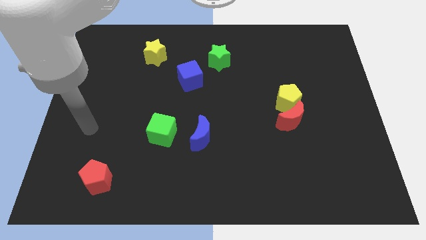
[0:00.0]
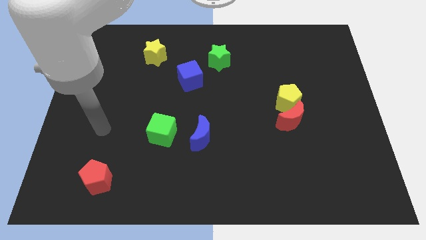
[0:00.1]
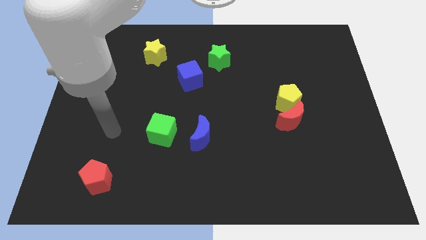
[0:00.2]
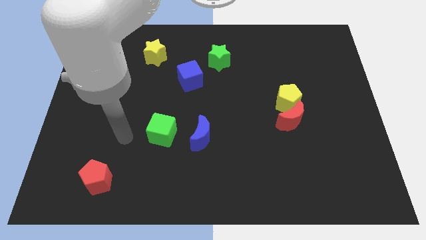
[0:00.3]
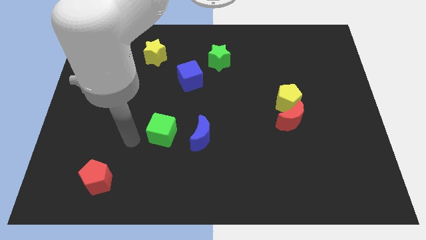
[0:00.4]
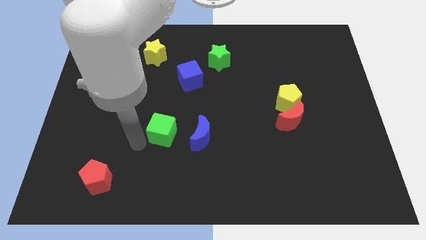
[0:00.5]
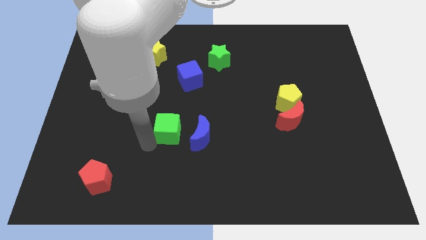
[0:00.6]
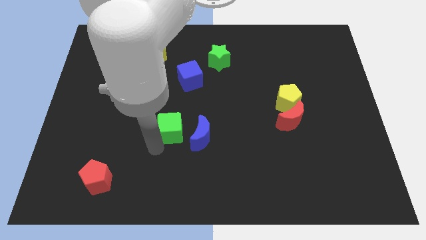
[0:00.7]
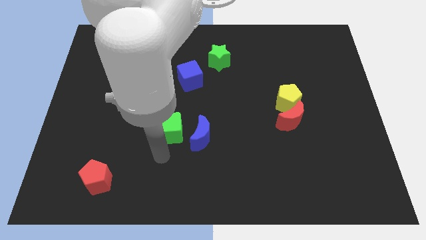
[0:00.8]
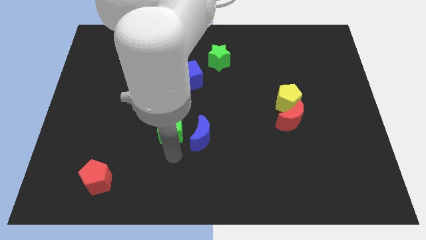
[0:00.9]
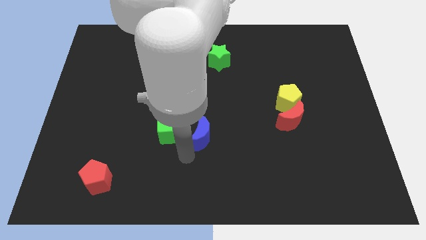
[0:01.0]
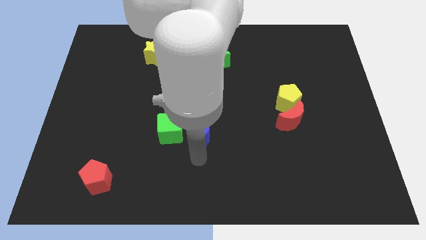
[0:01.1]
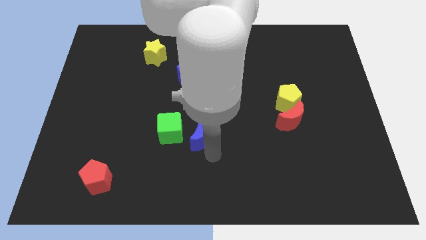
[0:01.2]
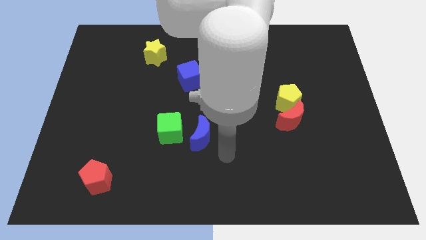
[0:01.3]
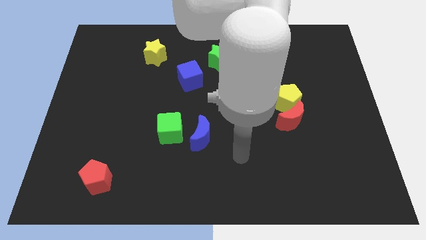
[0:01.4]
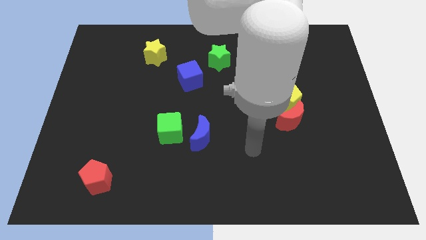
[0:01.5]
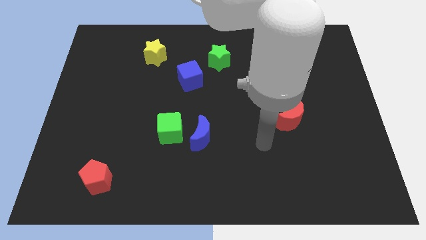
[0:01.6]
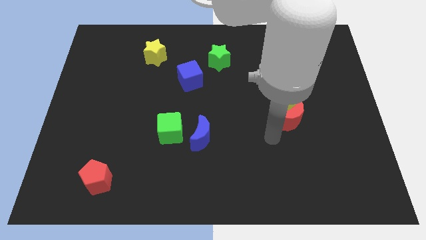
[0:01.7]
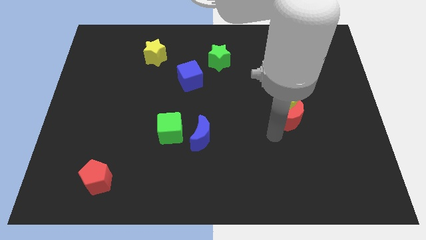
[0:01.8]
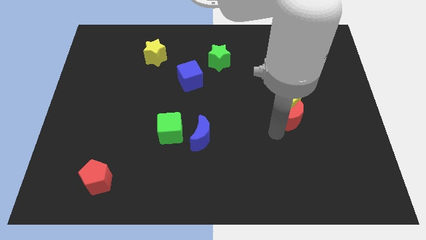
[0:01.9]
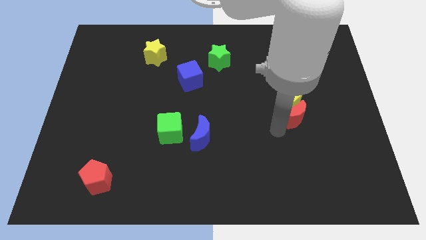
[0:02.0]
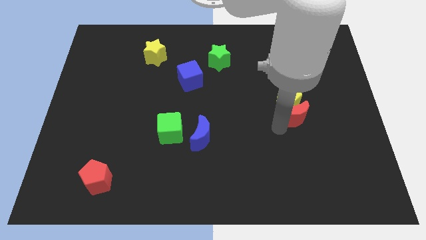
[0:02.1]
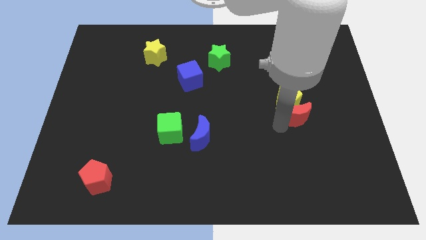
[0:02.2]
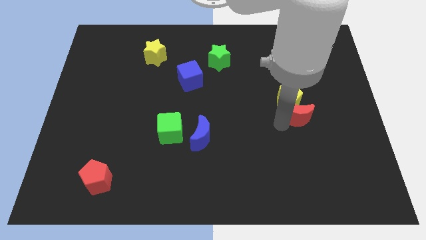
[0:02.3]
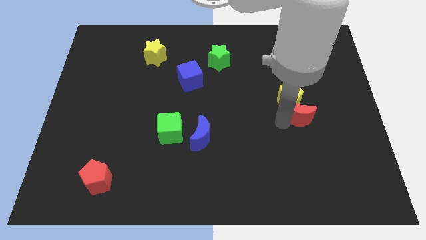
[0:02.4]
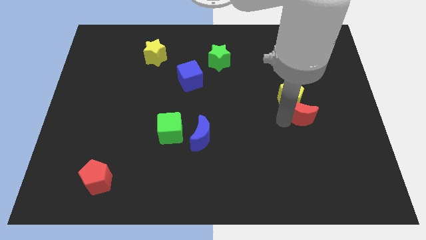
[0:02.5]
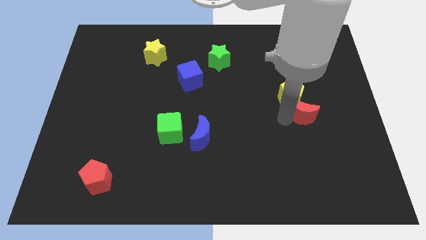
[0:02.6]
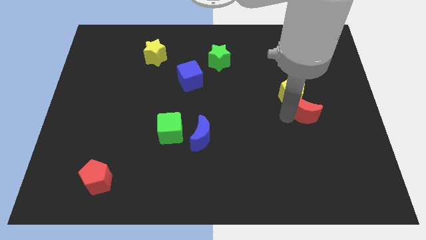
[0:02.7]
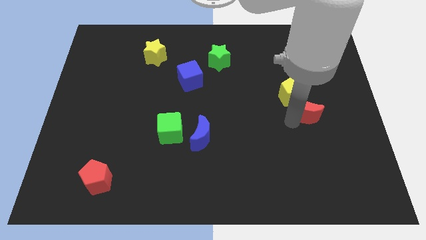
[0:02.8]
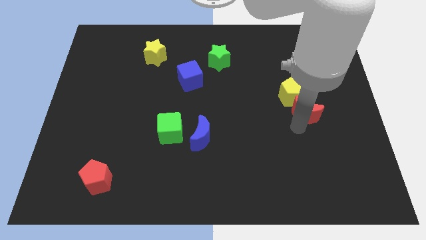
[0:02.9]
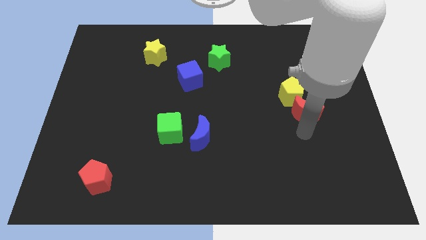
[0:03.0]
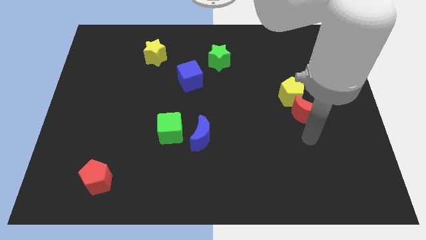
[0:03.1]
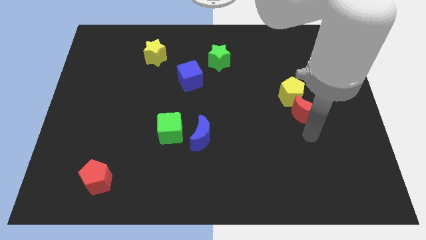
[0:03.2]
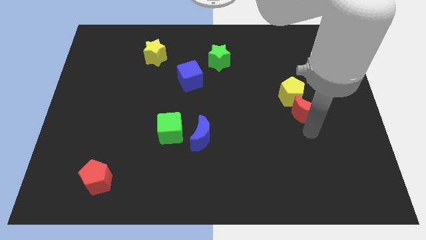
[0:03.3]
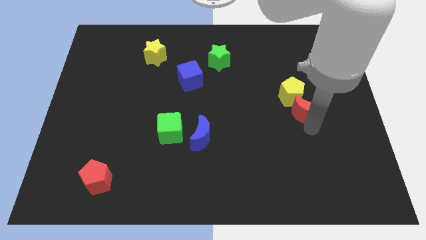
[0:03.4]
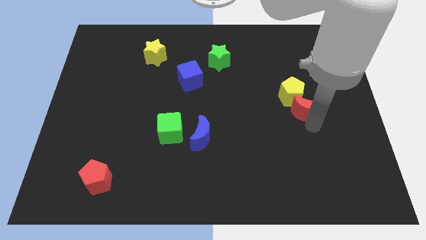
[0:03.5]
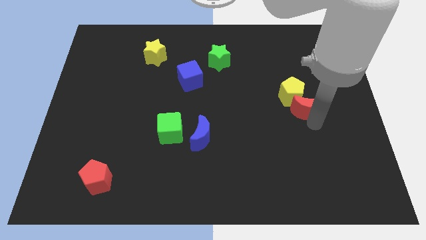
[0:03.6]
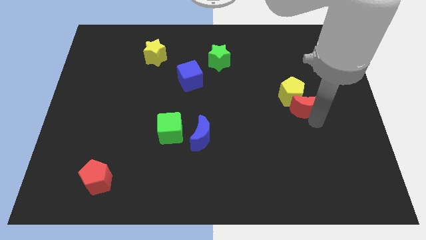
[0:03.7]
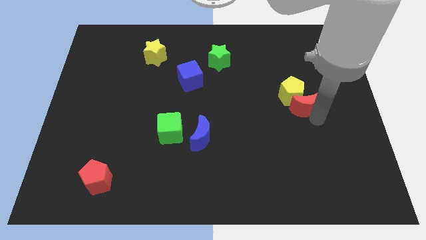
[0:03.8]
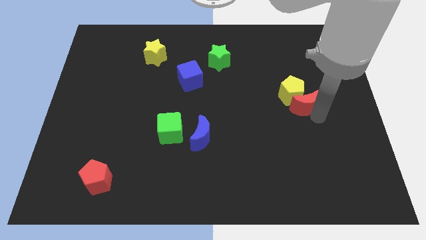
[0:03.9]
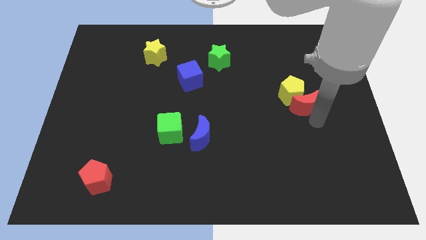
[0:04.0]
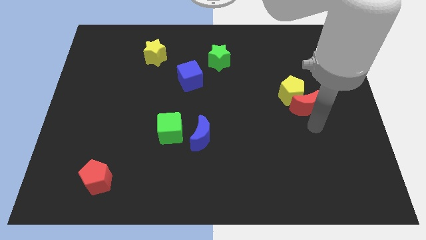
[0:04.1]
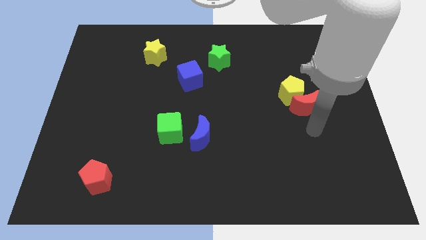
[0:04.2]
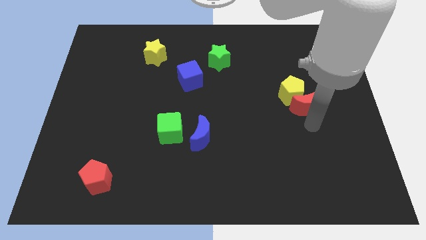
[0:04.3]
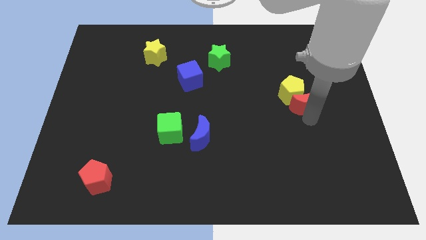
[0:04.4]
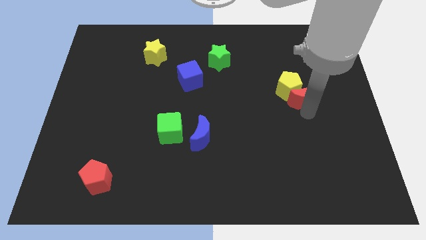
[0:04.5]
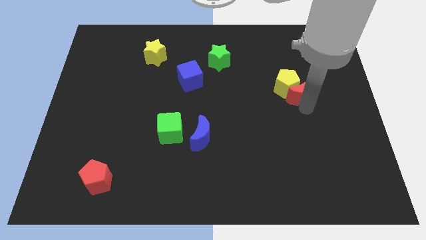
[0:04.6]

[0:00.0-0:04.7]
push the red moon up somewhat

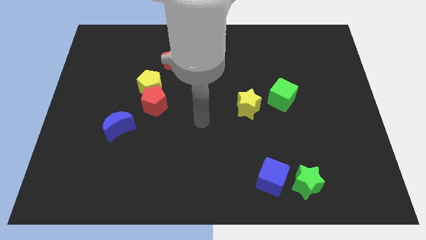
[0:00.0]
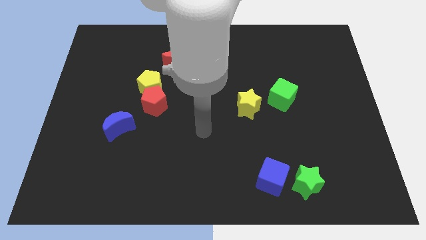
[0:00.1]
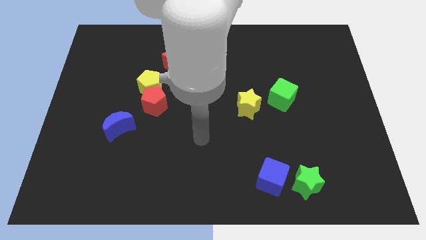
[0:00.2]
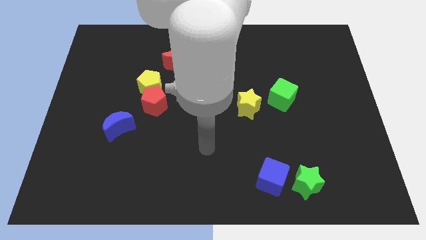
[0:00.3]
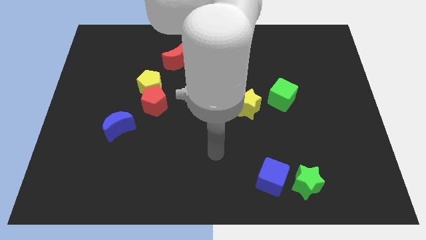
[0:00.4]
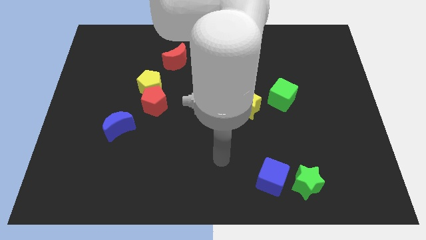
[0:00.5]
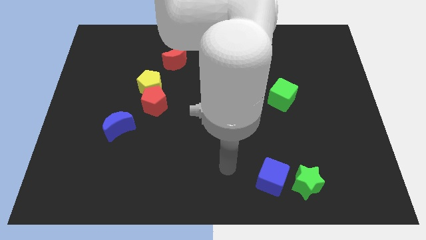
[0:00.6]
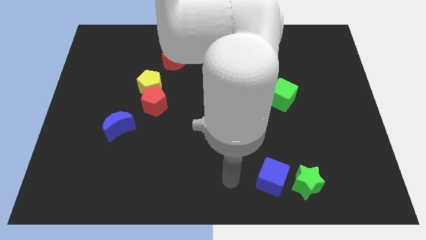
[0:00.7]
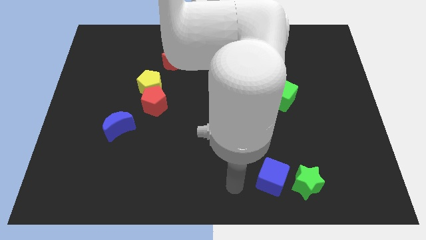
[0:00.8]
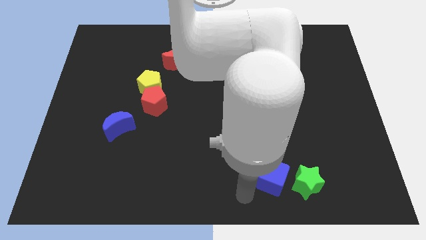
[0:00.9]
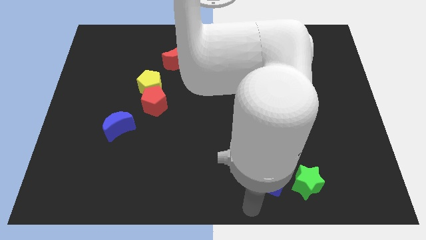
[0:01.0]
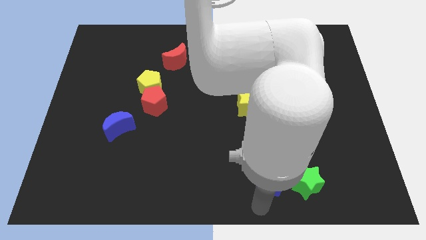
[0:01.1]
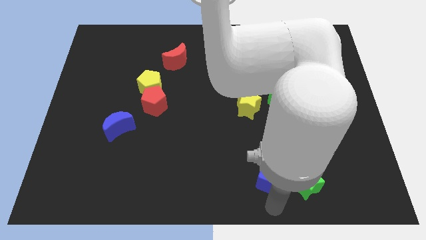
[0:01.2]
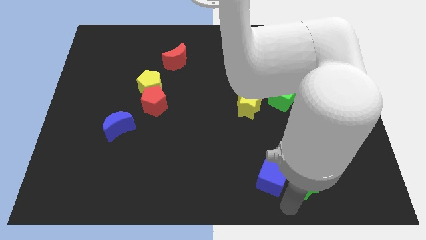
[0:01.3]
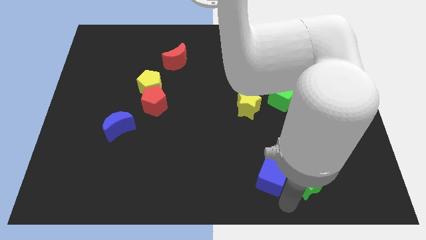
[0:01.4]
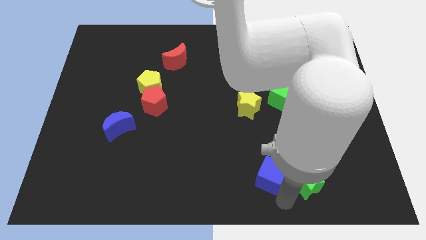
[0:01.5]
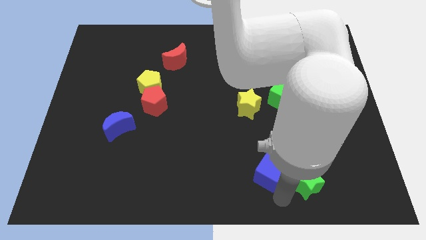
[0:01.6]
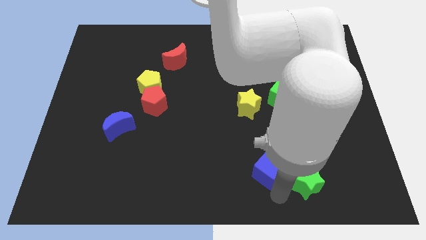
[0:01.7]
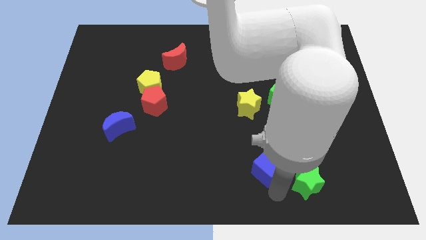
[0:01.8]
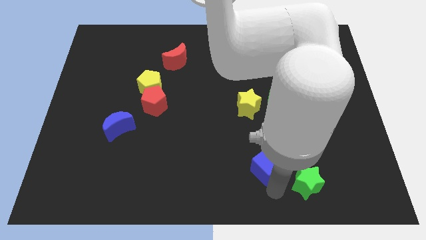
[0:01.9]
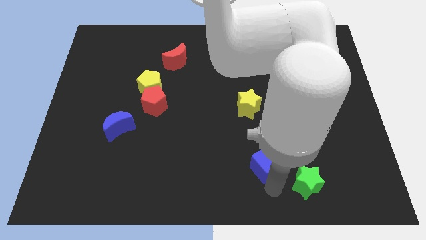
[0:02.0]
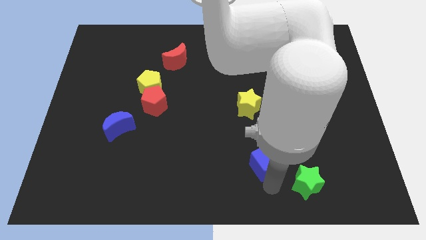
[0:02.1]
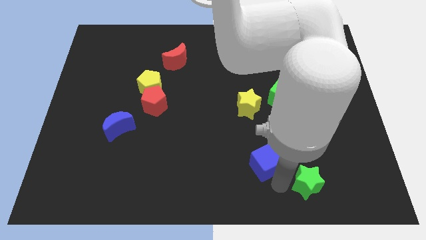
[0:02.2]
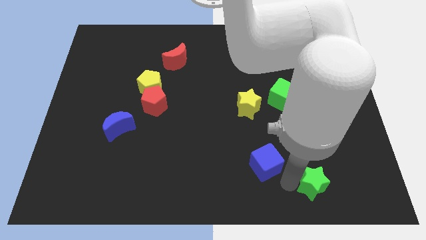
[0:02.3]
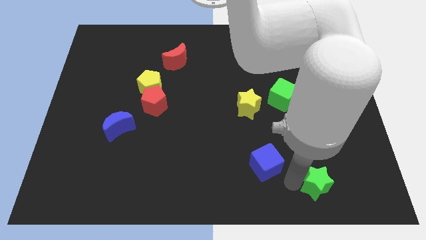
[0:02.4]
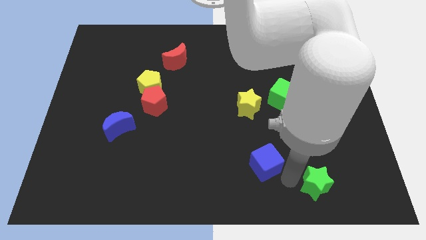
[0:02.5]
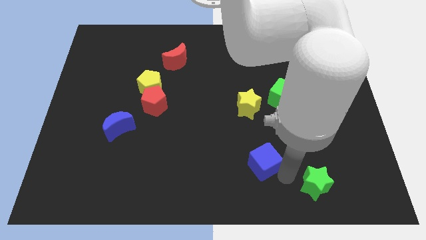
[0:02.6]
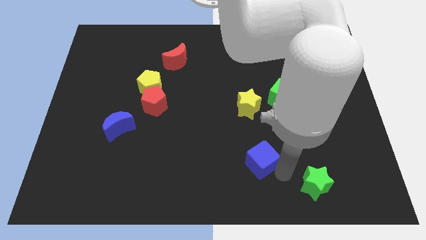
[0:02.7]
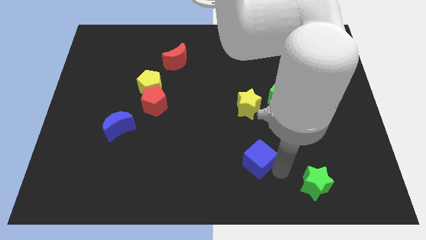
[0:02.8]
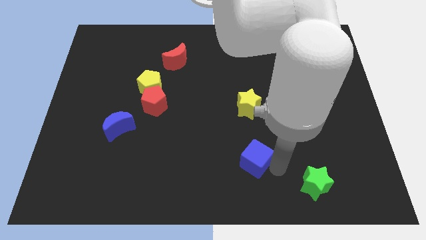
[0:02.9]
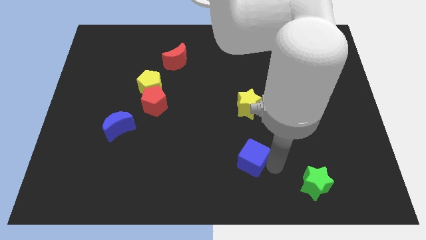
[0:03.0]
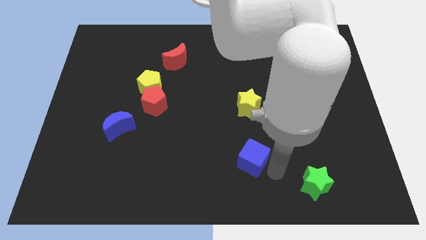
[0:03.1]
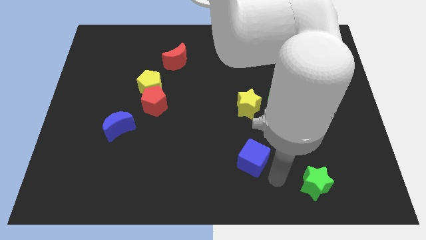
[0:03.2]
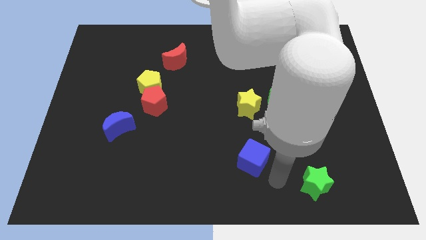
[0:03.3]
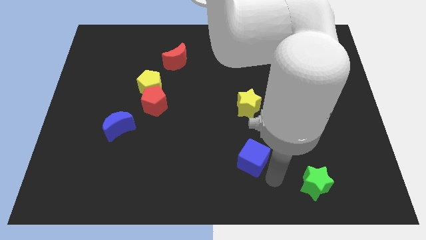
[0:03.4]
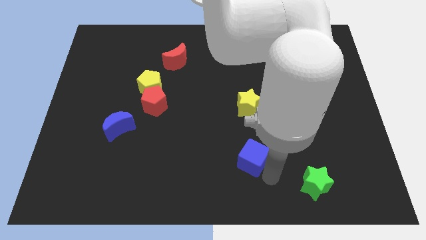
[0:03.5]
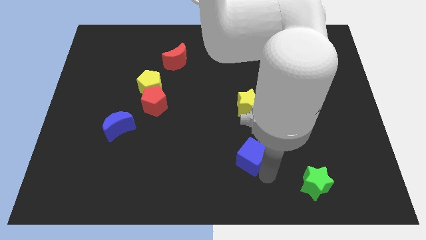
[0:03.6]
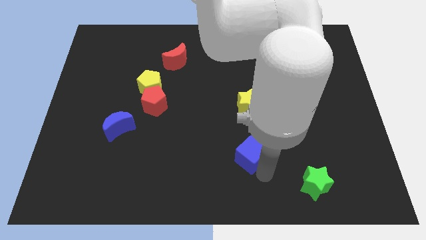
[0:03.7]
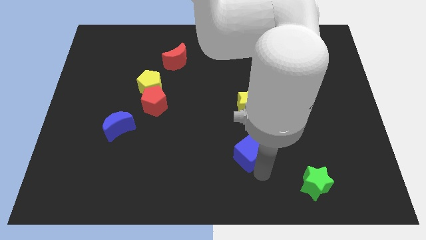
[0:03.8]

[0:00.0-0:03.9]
move the blue cube upwards and left a little bit
